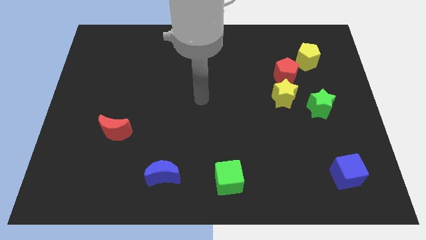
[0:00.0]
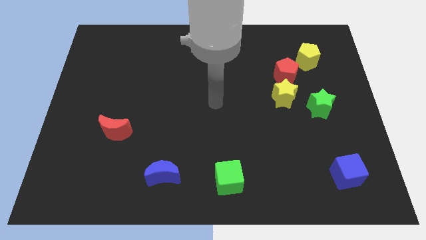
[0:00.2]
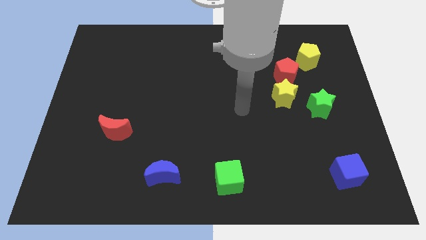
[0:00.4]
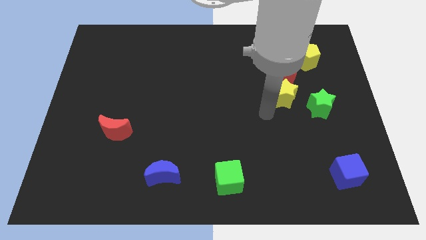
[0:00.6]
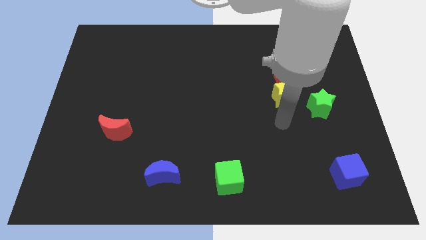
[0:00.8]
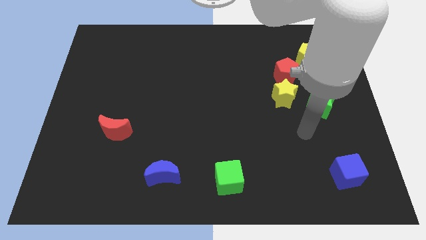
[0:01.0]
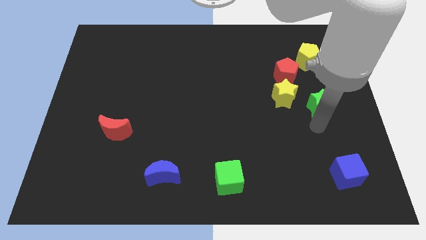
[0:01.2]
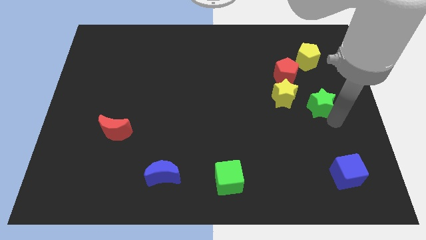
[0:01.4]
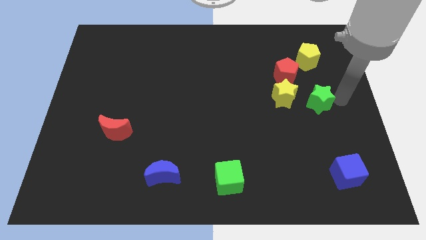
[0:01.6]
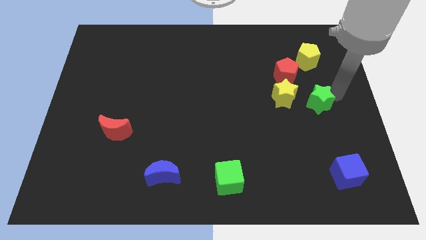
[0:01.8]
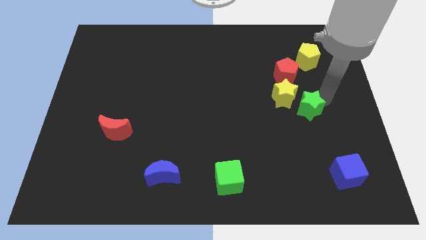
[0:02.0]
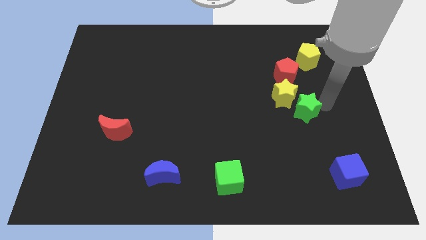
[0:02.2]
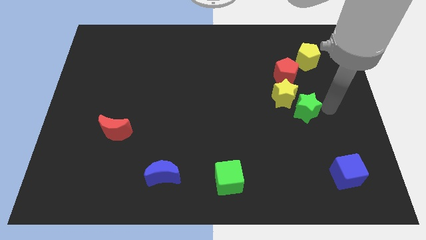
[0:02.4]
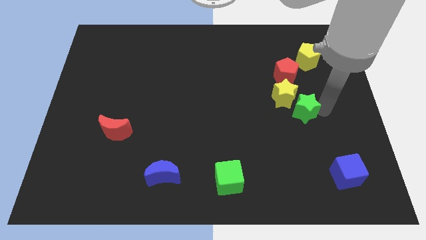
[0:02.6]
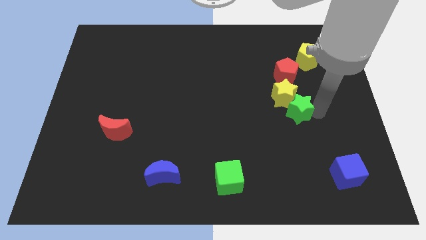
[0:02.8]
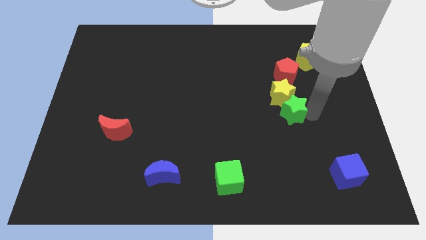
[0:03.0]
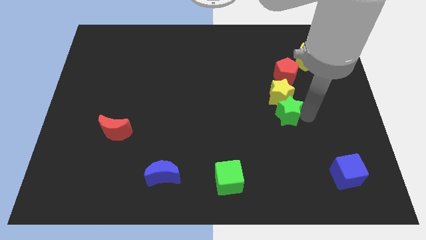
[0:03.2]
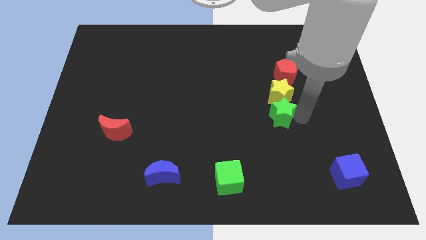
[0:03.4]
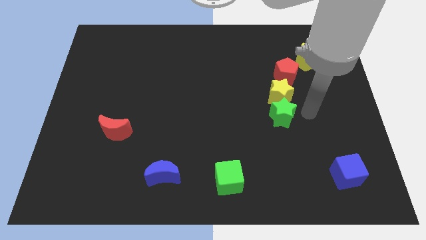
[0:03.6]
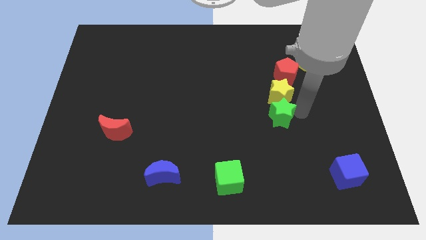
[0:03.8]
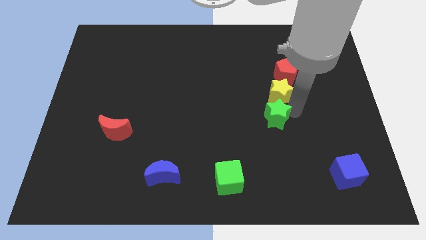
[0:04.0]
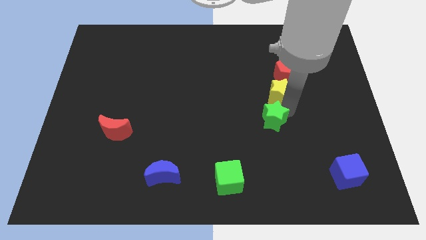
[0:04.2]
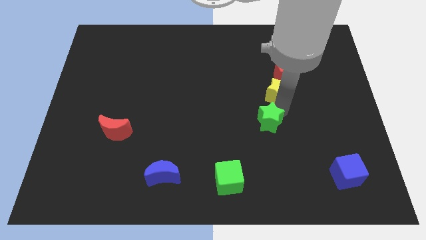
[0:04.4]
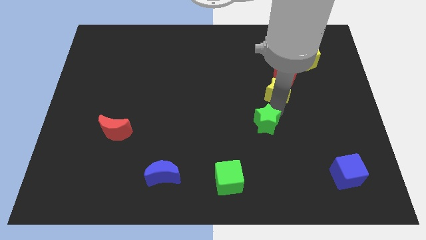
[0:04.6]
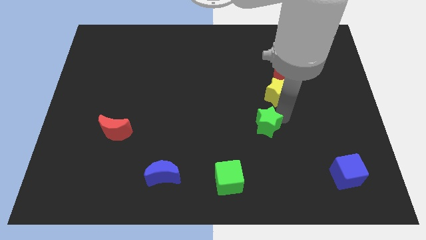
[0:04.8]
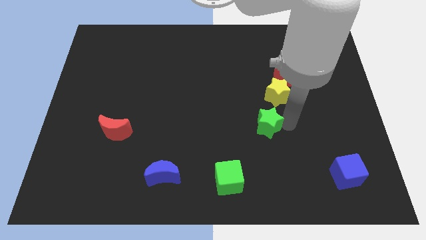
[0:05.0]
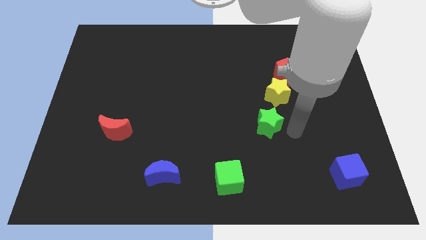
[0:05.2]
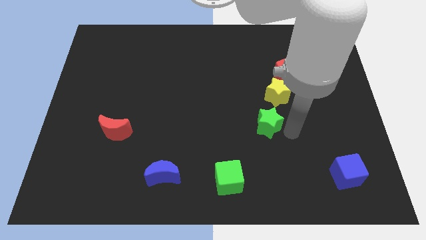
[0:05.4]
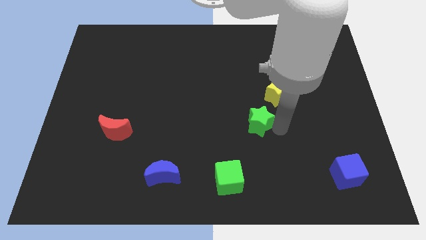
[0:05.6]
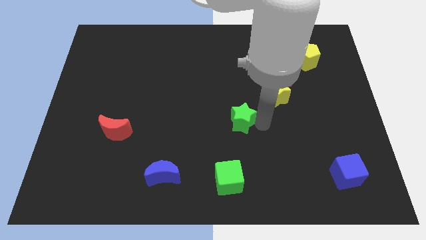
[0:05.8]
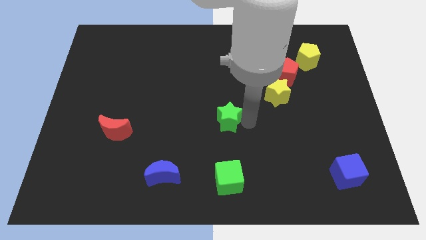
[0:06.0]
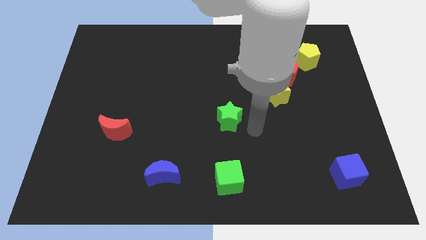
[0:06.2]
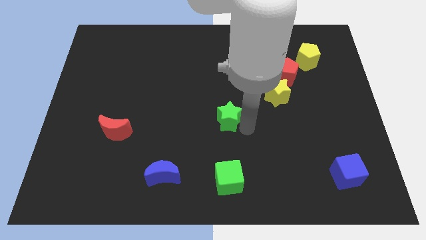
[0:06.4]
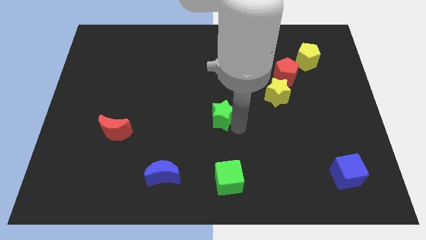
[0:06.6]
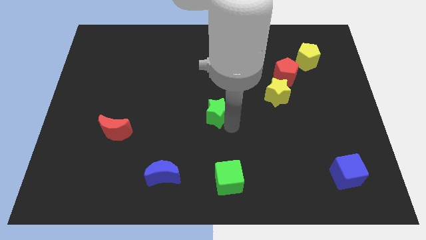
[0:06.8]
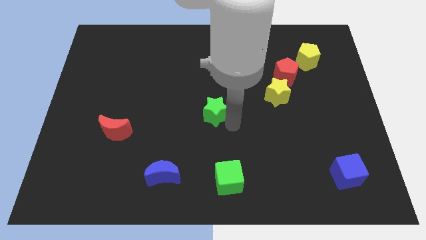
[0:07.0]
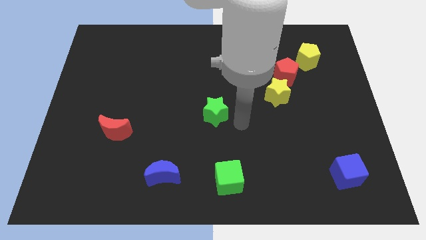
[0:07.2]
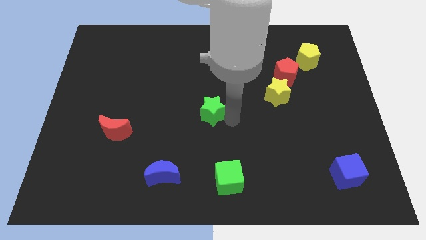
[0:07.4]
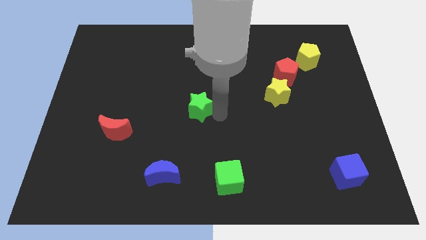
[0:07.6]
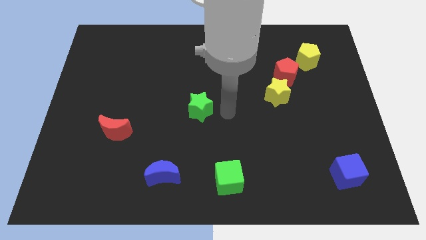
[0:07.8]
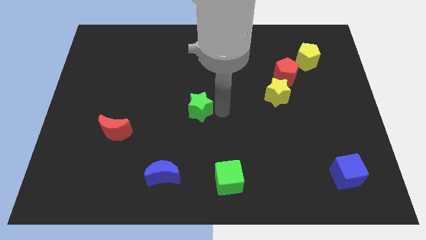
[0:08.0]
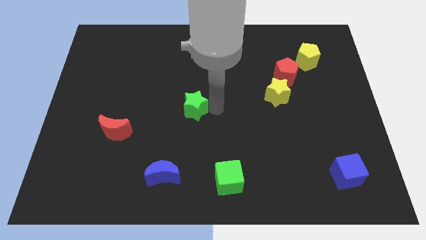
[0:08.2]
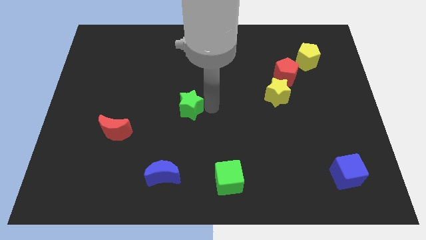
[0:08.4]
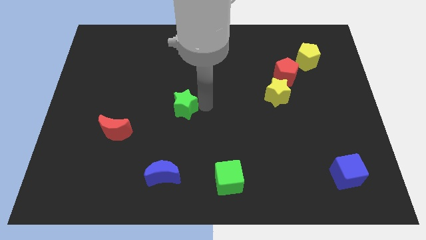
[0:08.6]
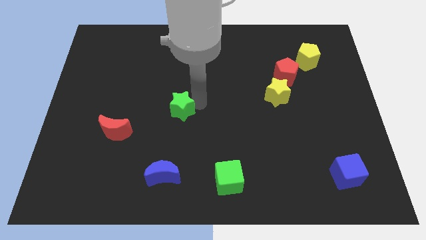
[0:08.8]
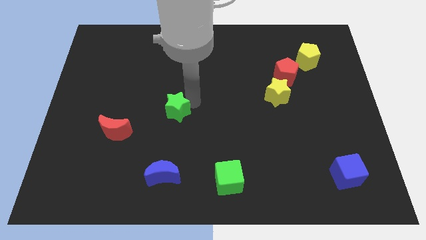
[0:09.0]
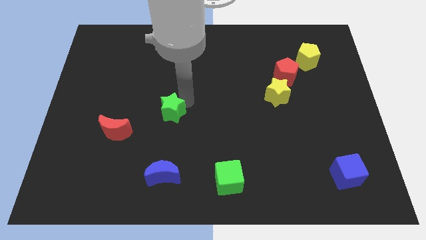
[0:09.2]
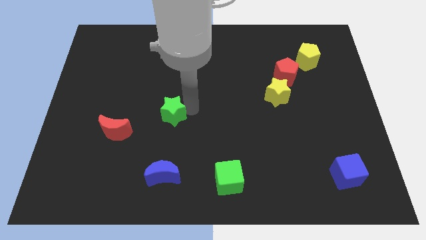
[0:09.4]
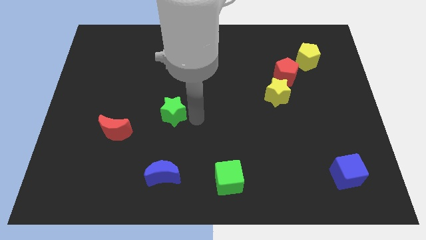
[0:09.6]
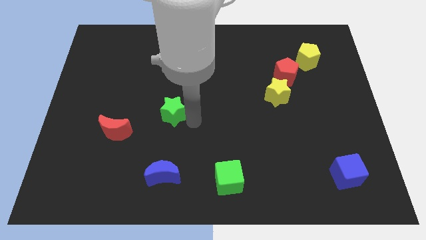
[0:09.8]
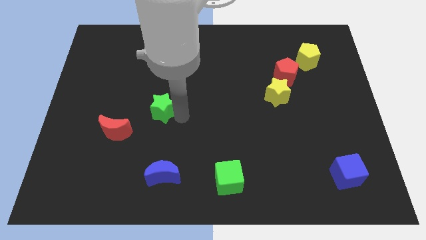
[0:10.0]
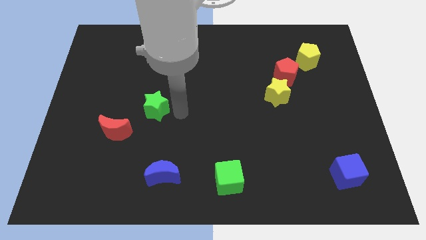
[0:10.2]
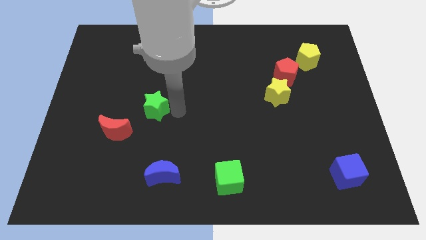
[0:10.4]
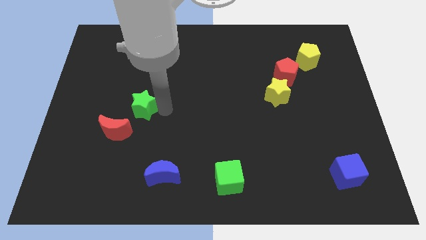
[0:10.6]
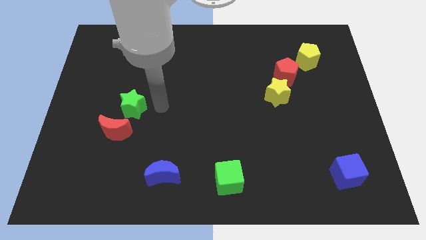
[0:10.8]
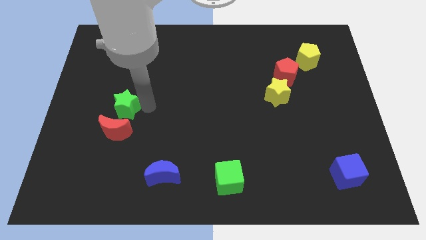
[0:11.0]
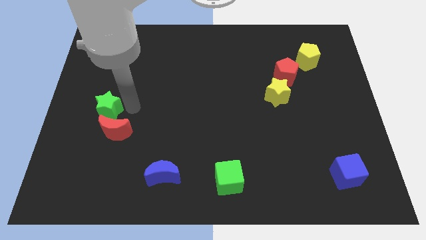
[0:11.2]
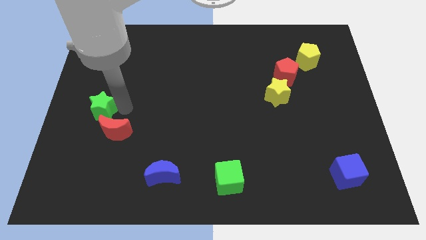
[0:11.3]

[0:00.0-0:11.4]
move the green star to the left side
